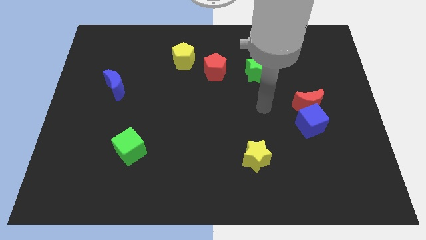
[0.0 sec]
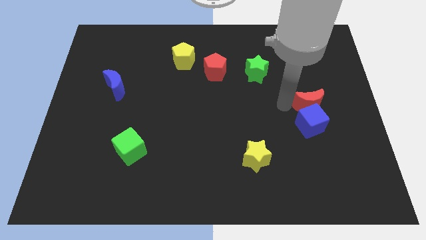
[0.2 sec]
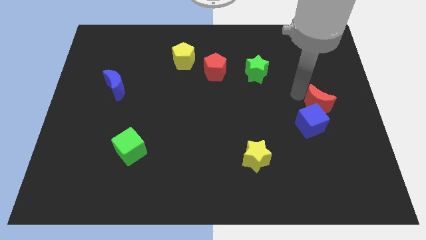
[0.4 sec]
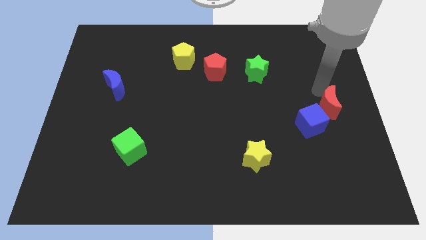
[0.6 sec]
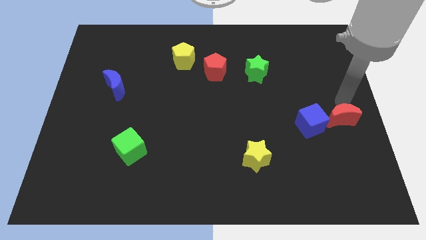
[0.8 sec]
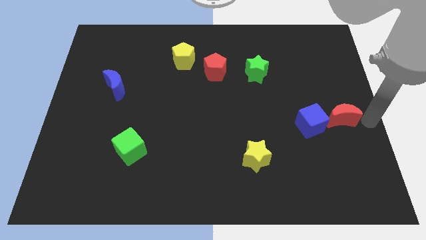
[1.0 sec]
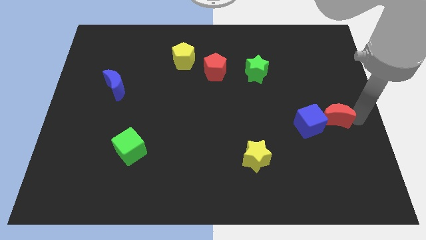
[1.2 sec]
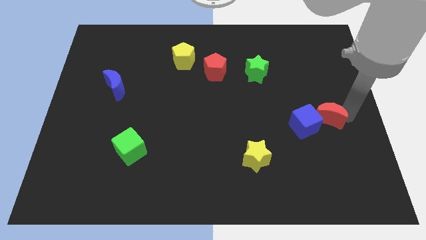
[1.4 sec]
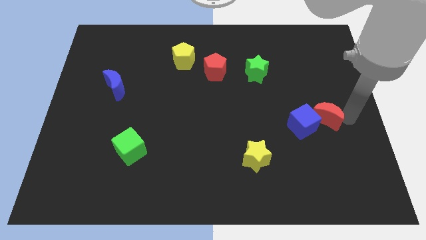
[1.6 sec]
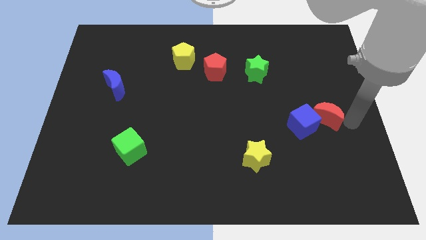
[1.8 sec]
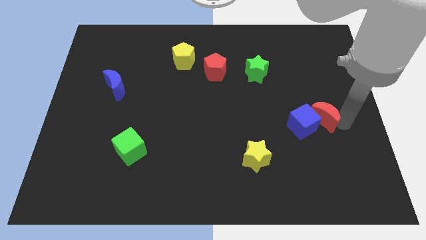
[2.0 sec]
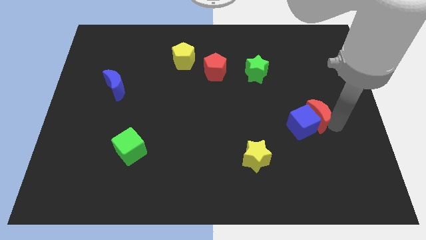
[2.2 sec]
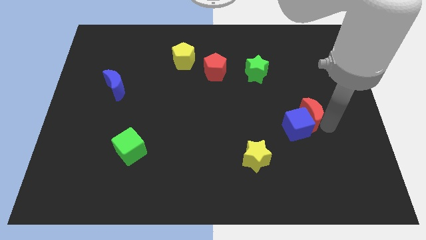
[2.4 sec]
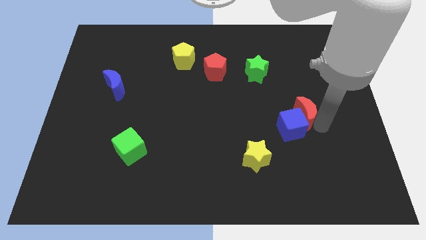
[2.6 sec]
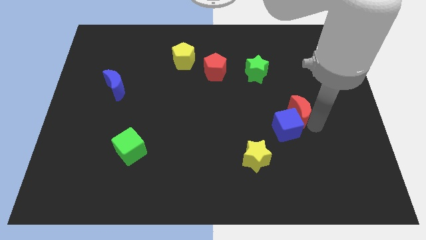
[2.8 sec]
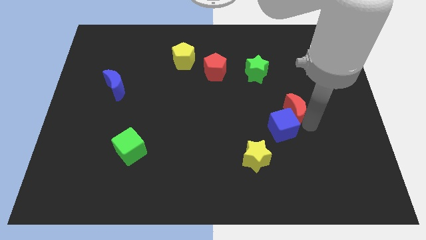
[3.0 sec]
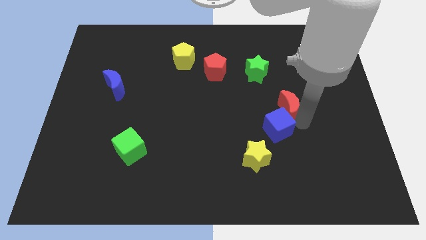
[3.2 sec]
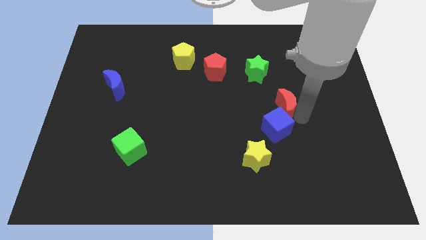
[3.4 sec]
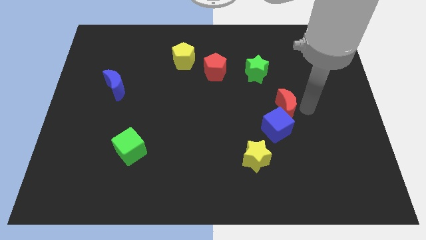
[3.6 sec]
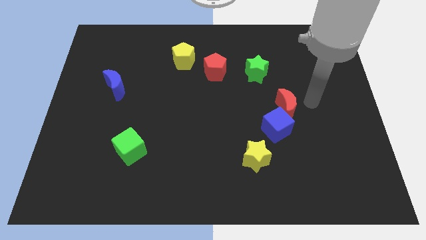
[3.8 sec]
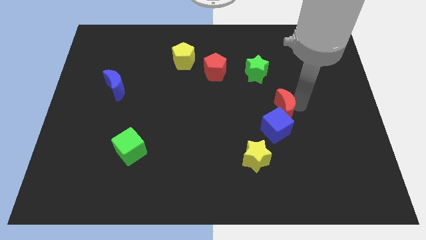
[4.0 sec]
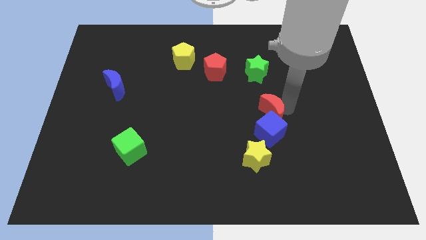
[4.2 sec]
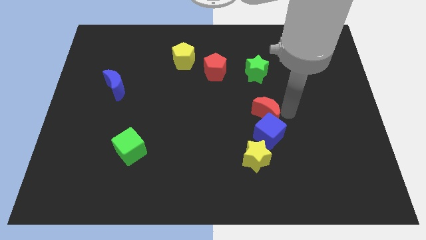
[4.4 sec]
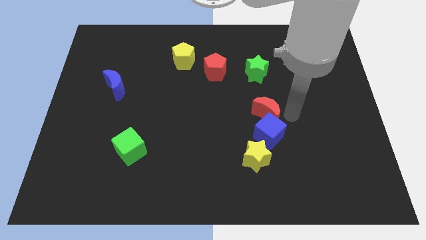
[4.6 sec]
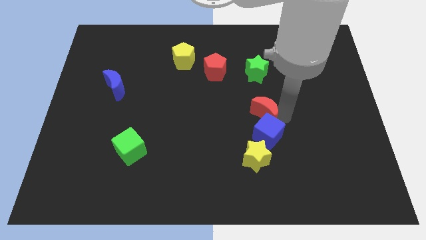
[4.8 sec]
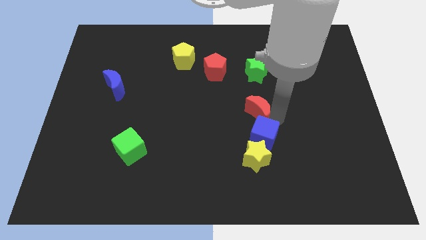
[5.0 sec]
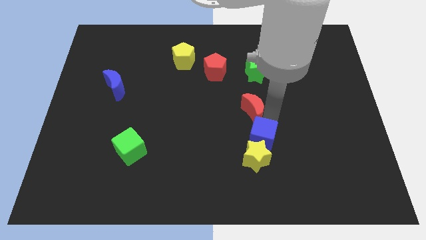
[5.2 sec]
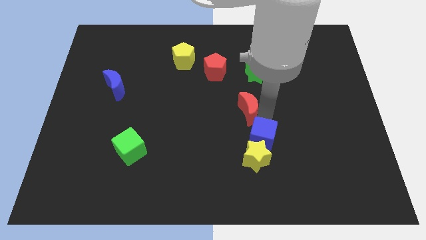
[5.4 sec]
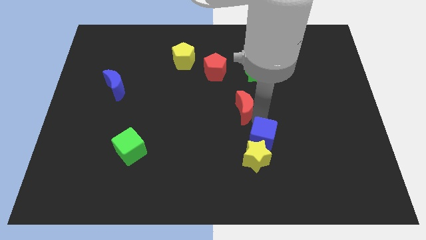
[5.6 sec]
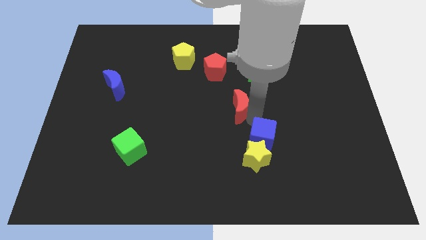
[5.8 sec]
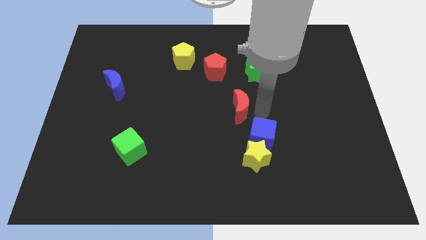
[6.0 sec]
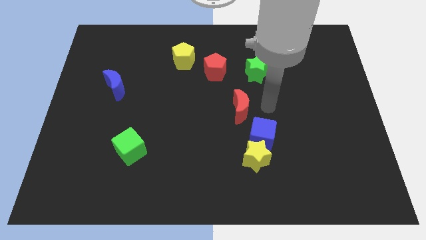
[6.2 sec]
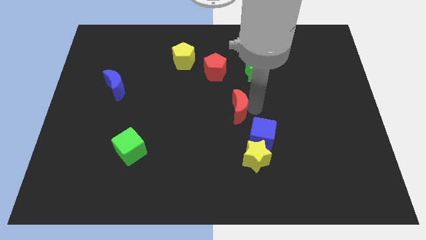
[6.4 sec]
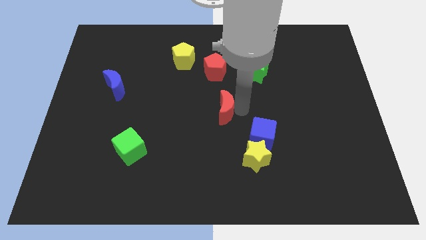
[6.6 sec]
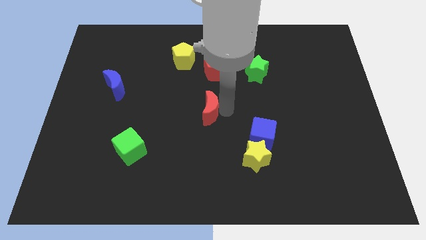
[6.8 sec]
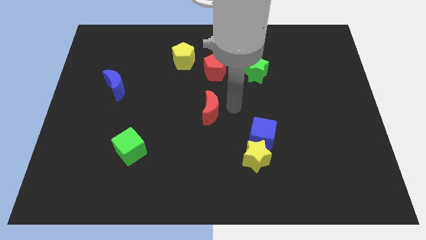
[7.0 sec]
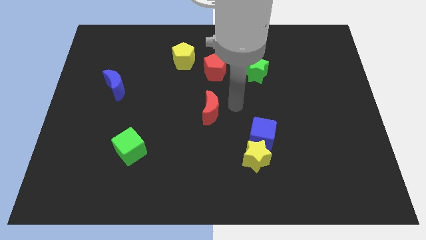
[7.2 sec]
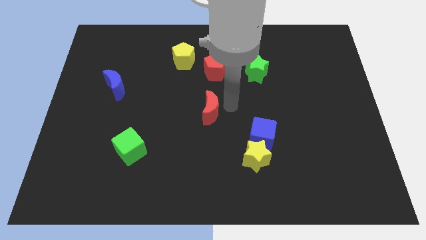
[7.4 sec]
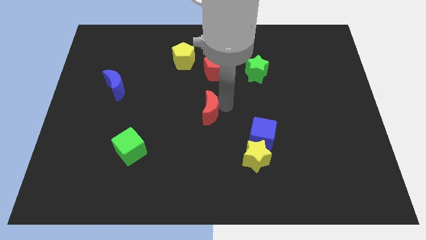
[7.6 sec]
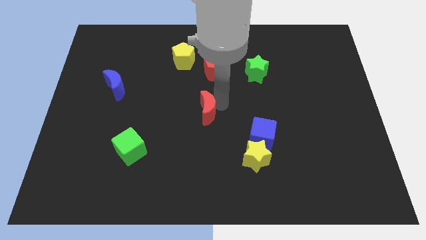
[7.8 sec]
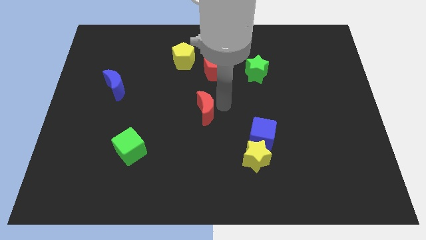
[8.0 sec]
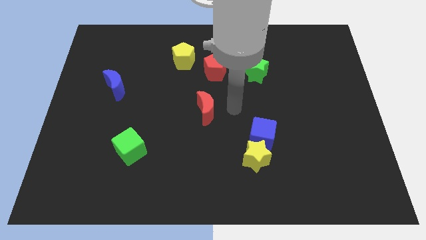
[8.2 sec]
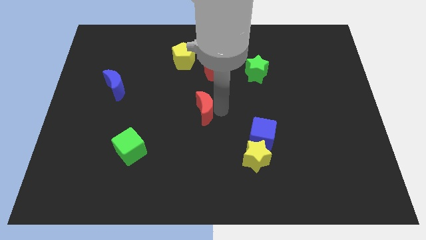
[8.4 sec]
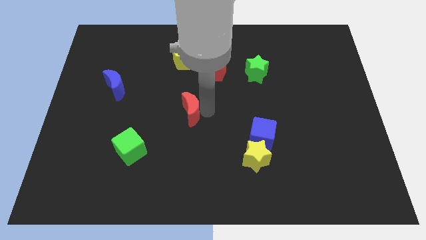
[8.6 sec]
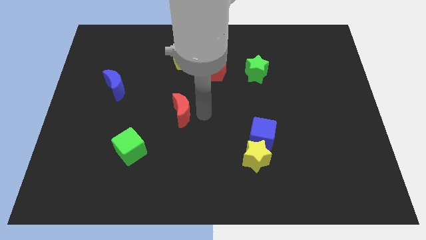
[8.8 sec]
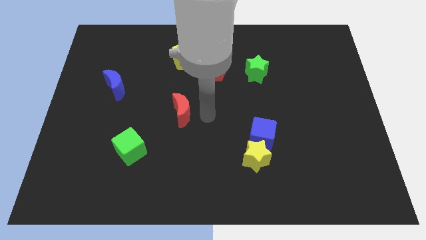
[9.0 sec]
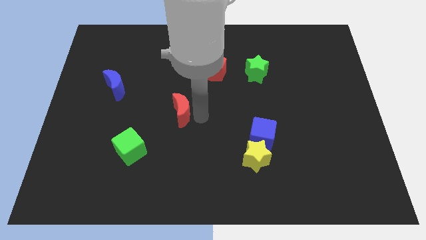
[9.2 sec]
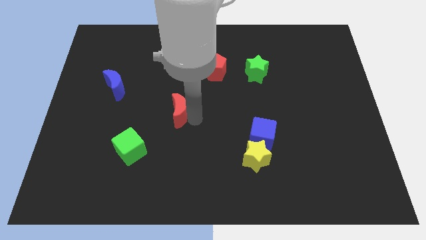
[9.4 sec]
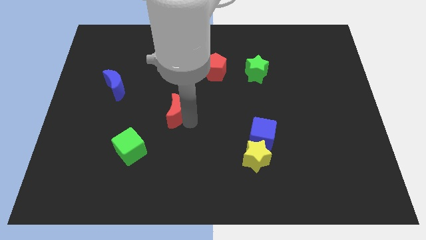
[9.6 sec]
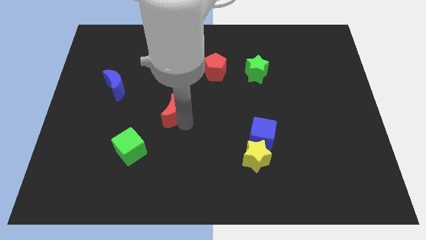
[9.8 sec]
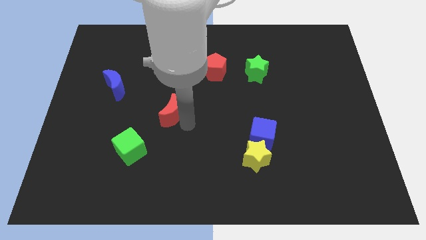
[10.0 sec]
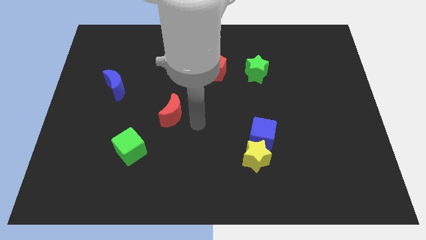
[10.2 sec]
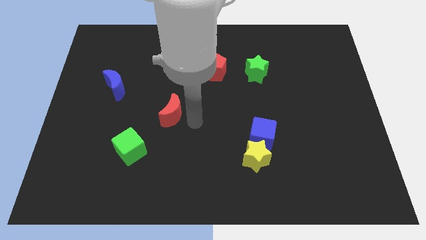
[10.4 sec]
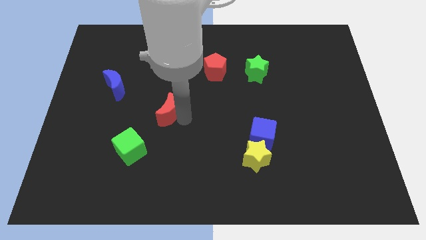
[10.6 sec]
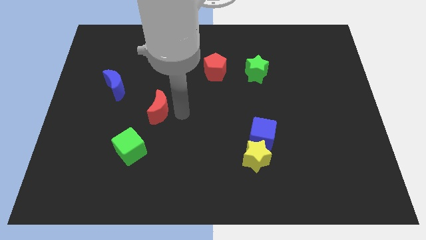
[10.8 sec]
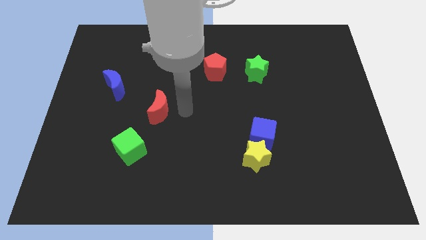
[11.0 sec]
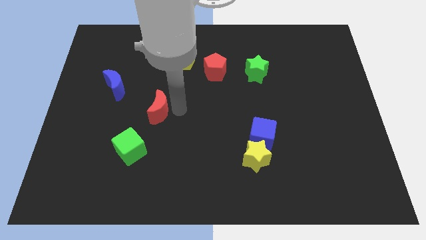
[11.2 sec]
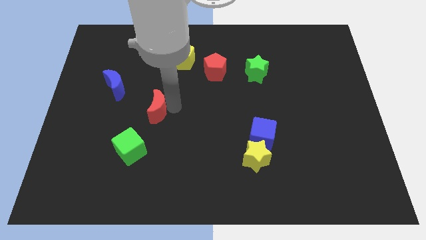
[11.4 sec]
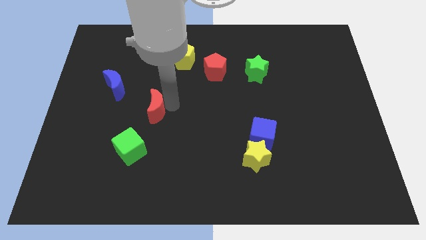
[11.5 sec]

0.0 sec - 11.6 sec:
push the red moon to the top of the green cube
